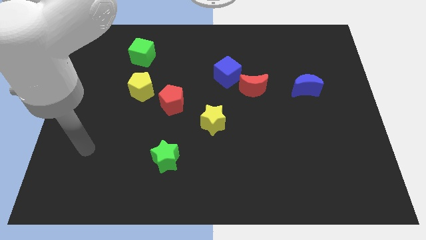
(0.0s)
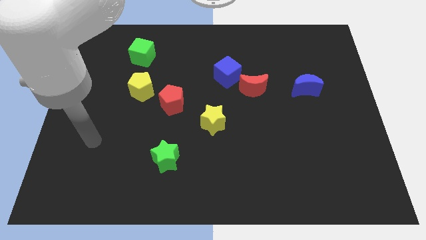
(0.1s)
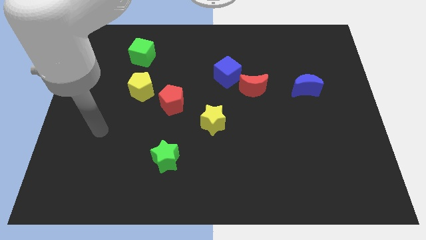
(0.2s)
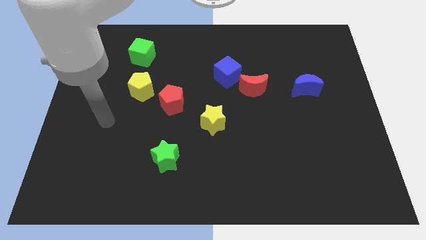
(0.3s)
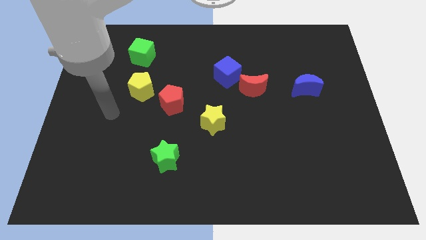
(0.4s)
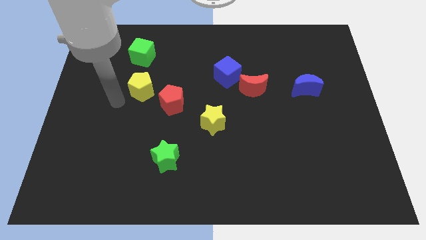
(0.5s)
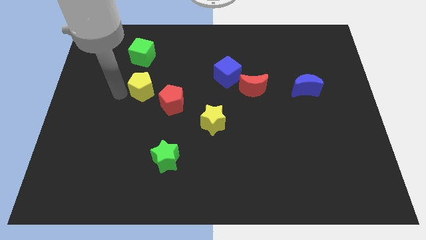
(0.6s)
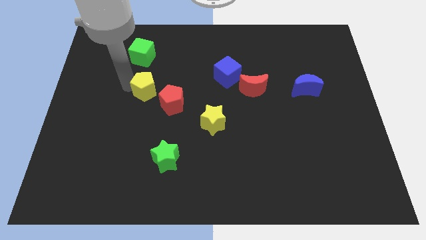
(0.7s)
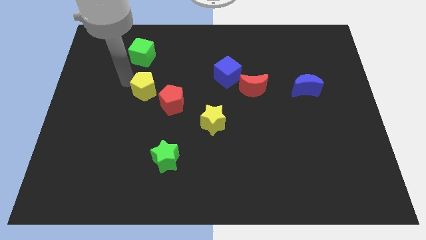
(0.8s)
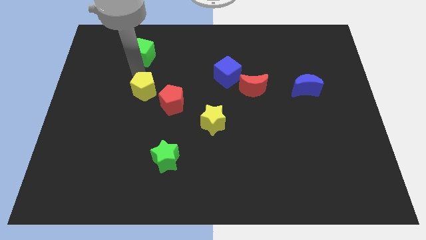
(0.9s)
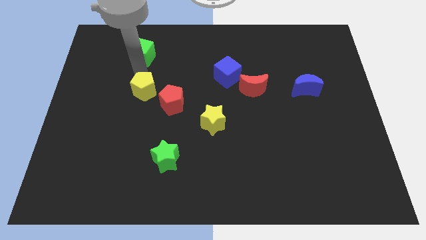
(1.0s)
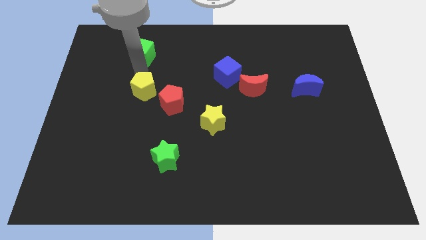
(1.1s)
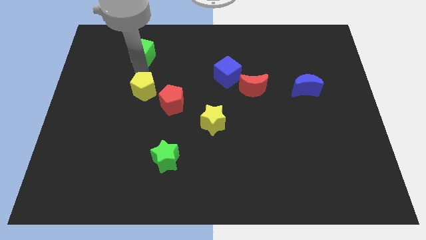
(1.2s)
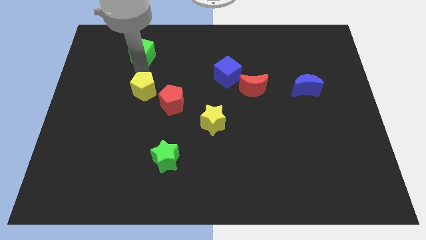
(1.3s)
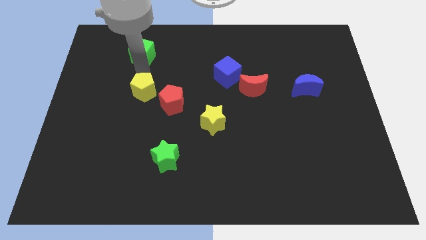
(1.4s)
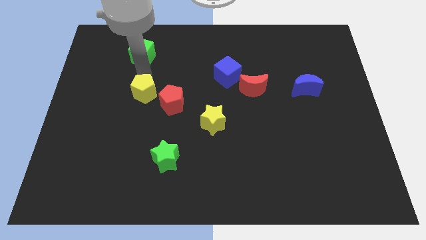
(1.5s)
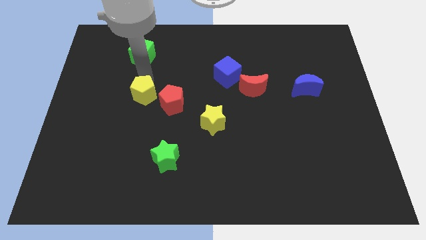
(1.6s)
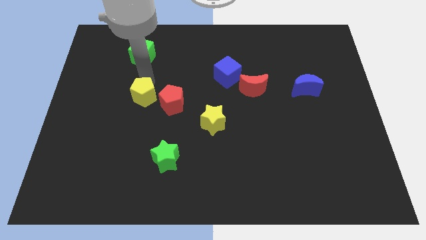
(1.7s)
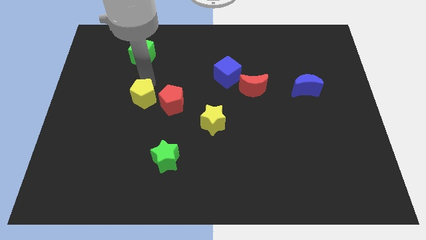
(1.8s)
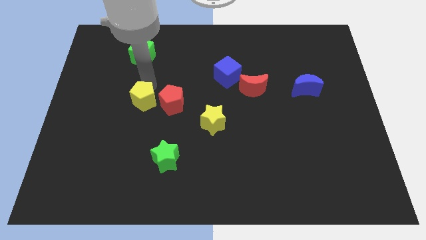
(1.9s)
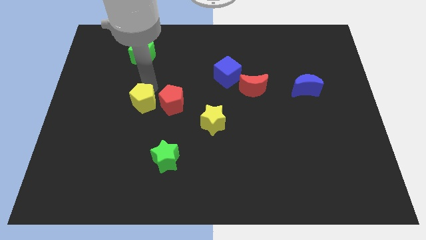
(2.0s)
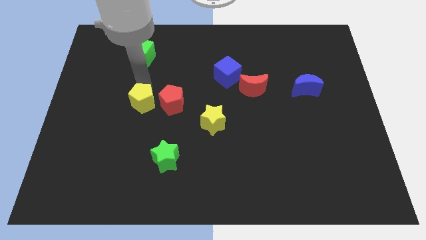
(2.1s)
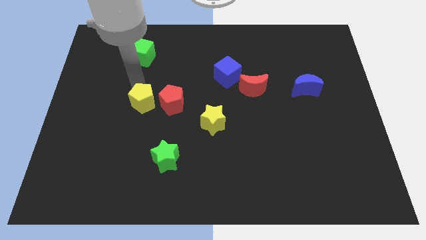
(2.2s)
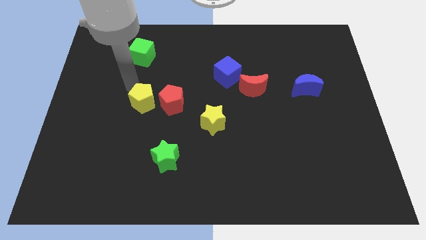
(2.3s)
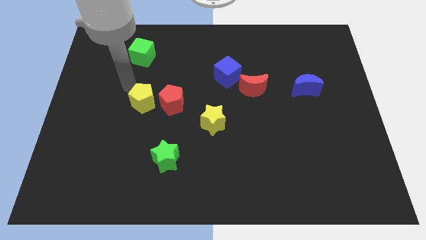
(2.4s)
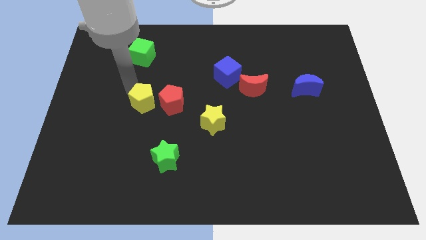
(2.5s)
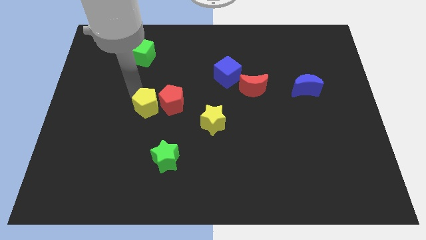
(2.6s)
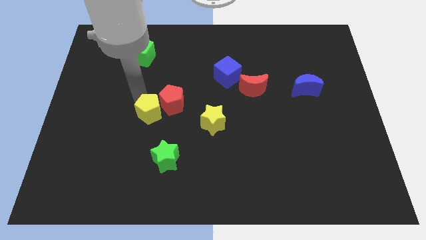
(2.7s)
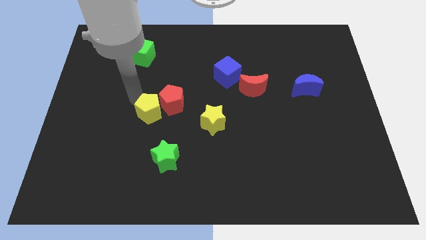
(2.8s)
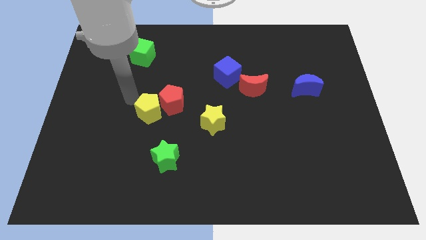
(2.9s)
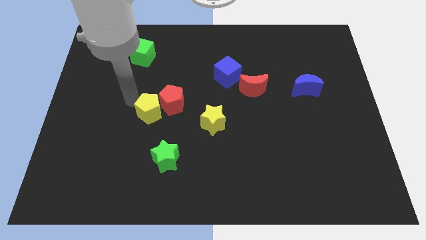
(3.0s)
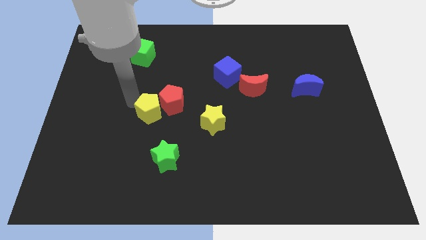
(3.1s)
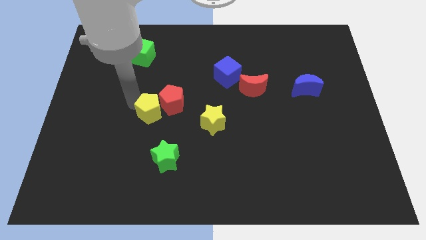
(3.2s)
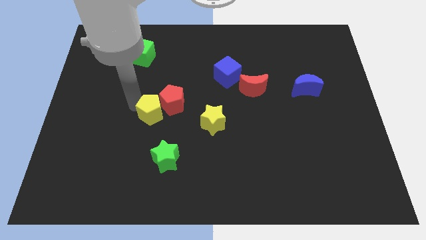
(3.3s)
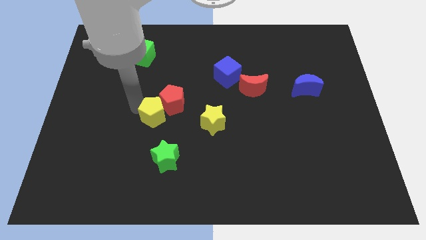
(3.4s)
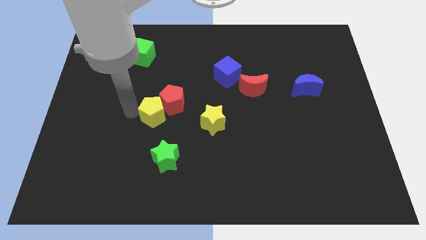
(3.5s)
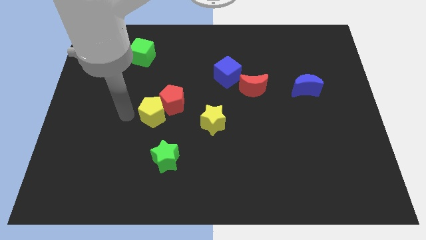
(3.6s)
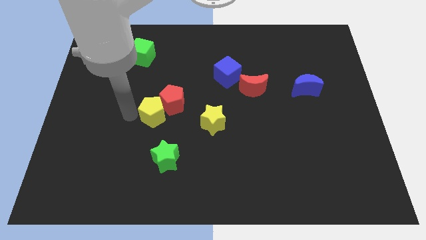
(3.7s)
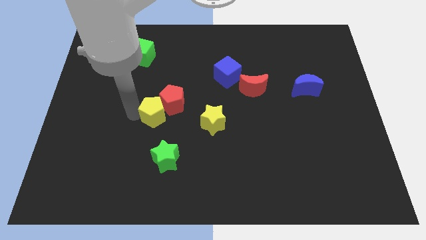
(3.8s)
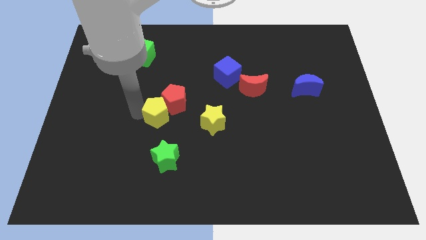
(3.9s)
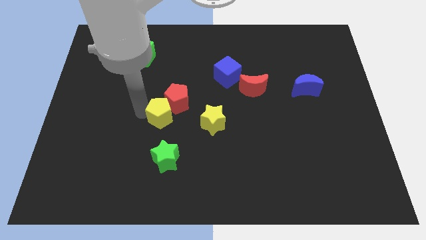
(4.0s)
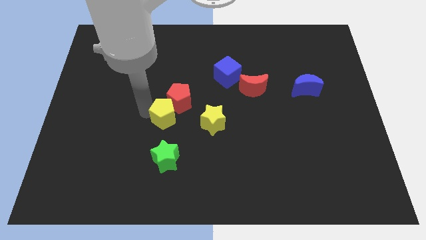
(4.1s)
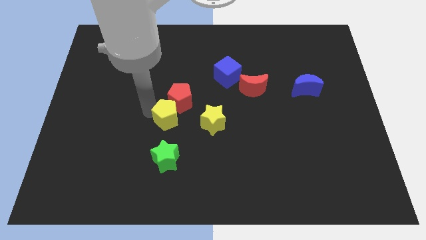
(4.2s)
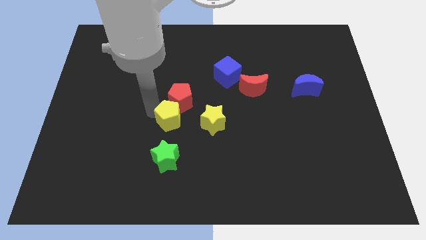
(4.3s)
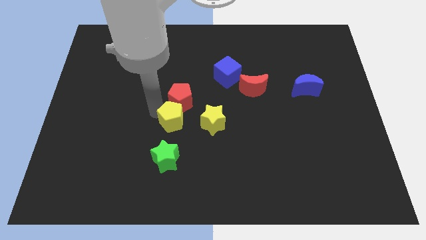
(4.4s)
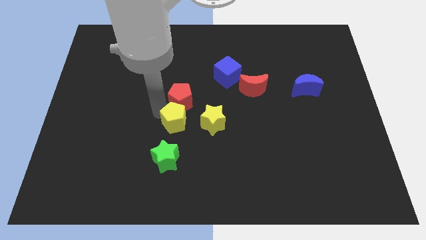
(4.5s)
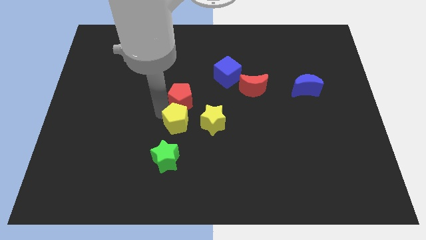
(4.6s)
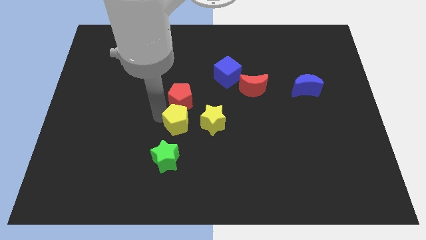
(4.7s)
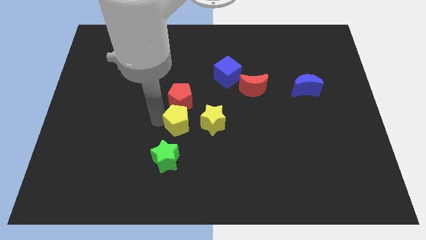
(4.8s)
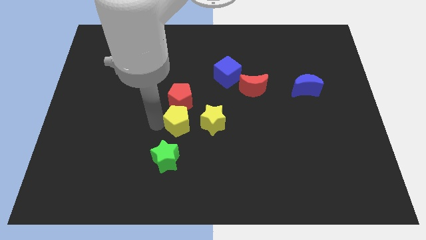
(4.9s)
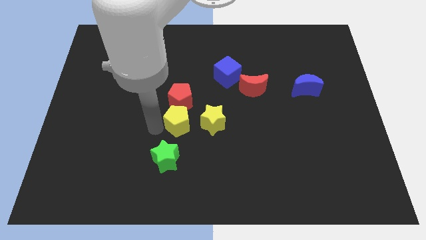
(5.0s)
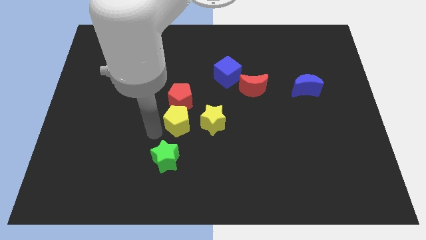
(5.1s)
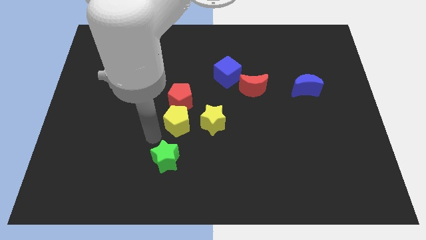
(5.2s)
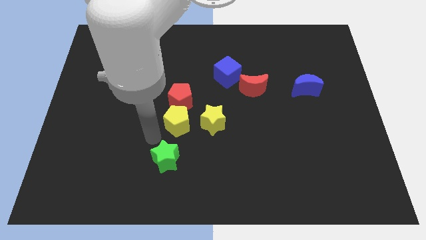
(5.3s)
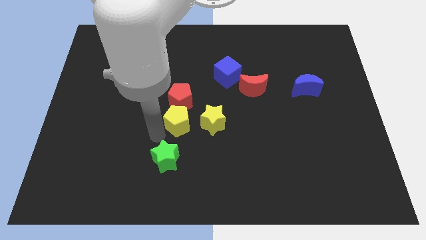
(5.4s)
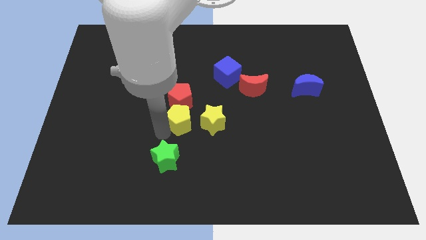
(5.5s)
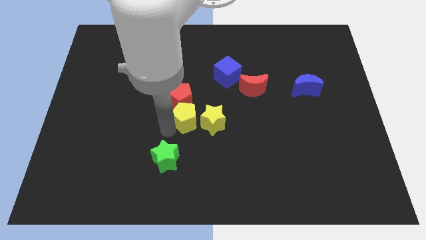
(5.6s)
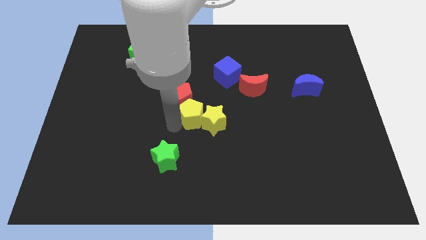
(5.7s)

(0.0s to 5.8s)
push the yellow pentagon close to the yellow star

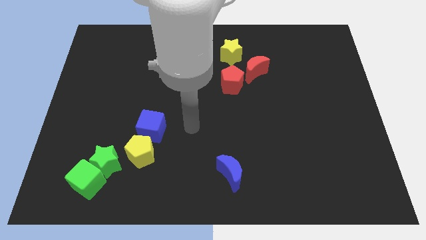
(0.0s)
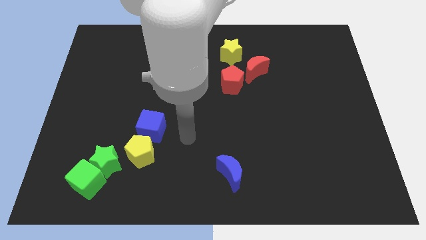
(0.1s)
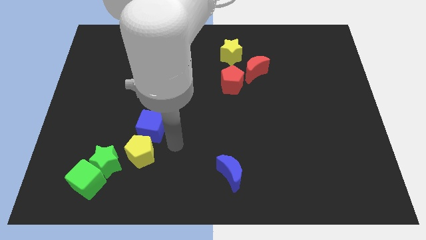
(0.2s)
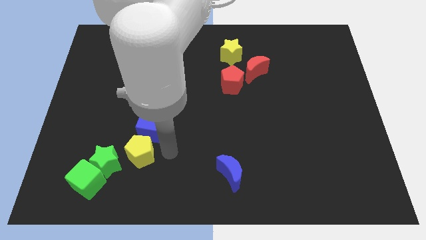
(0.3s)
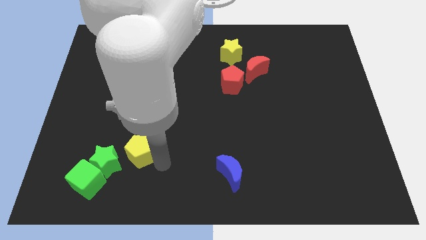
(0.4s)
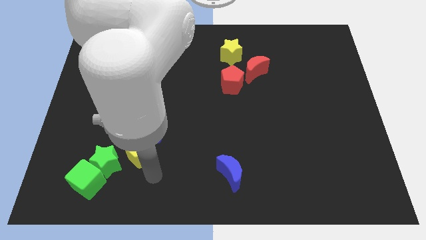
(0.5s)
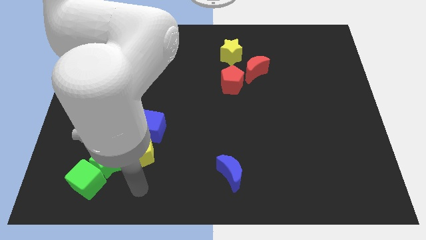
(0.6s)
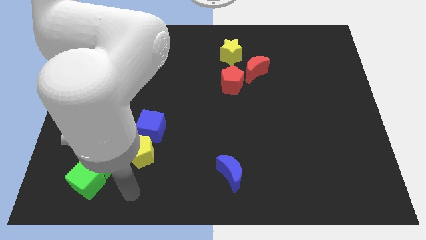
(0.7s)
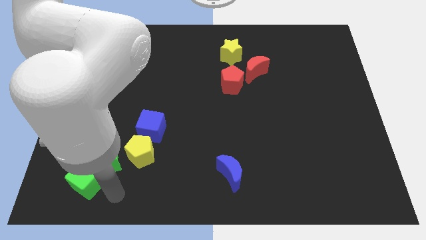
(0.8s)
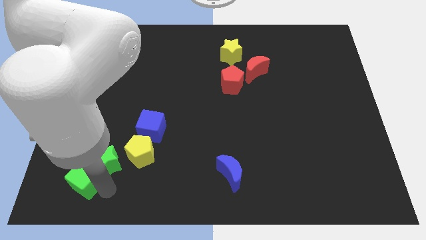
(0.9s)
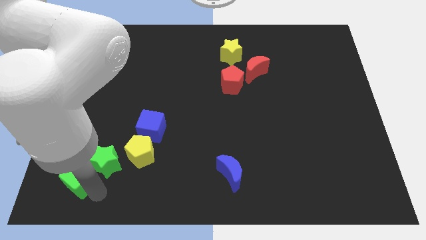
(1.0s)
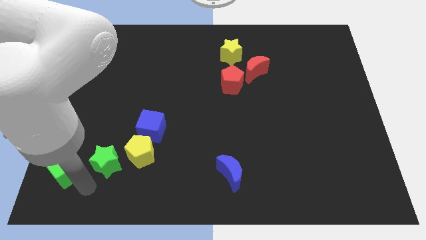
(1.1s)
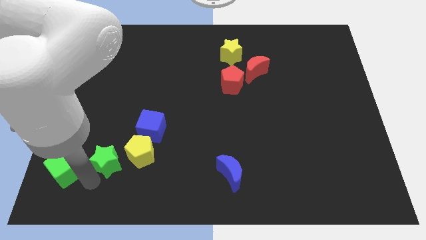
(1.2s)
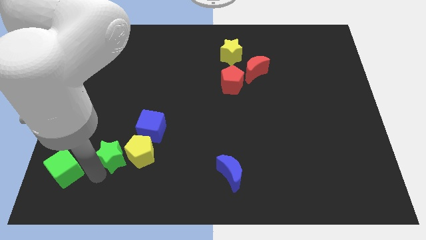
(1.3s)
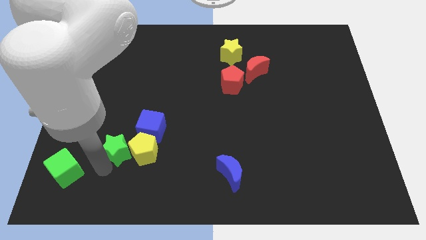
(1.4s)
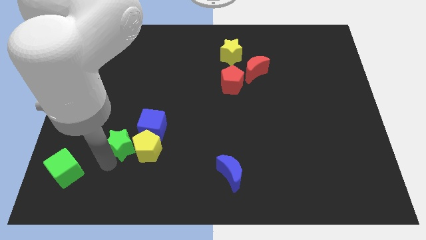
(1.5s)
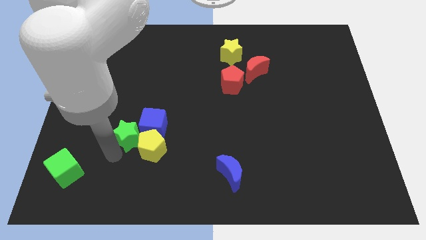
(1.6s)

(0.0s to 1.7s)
put the green star next to the blue cube

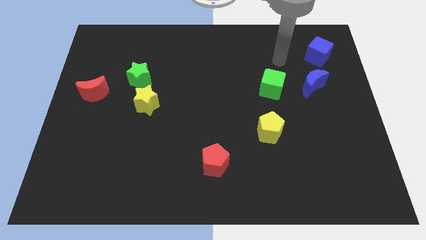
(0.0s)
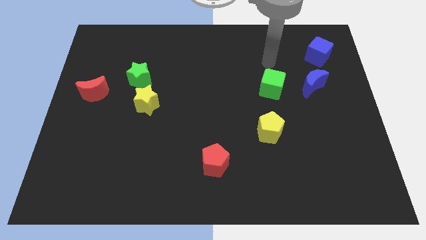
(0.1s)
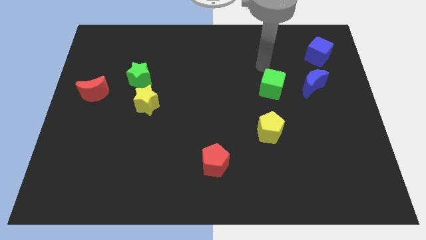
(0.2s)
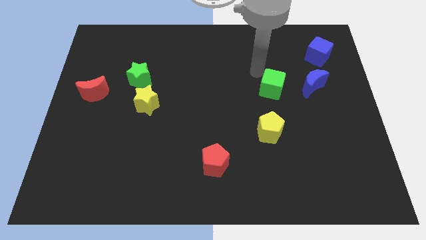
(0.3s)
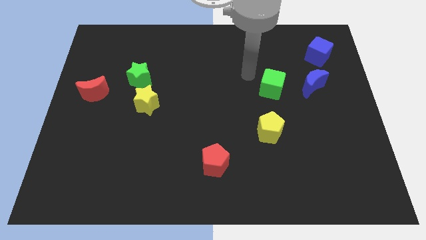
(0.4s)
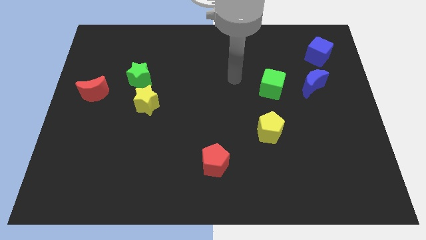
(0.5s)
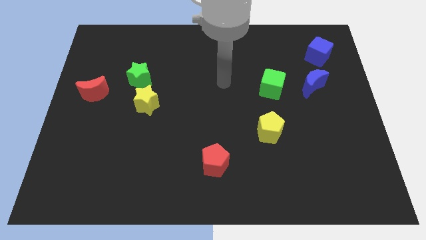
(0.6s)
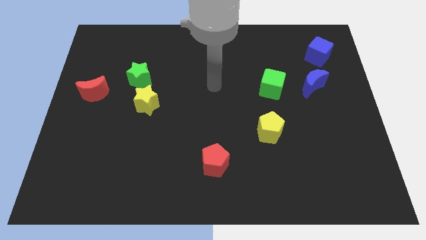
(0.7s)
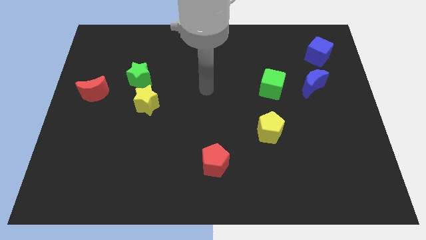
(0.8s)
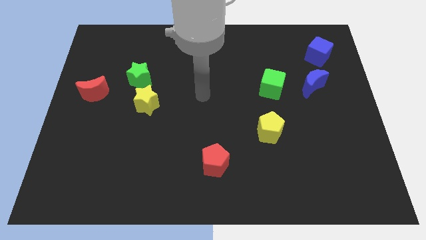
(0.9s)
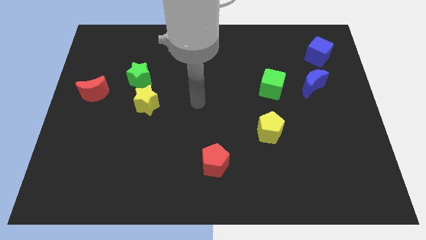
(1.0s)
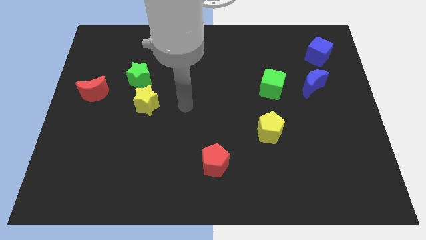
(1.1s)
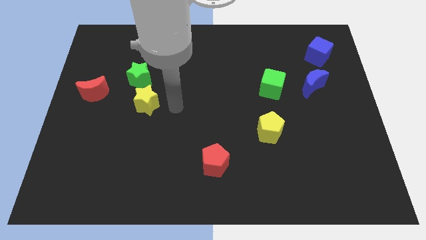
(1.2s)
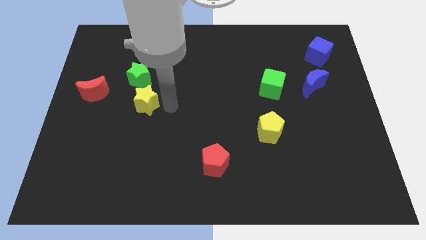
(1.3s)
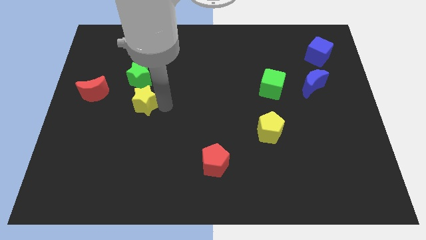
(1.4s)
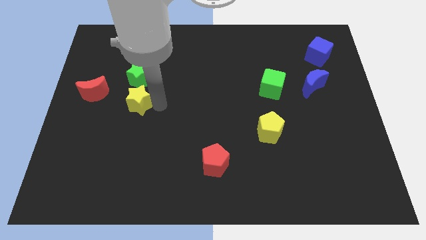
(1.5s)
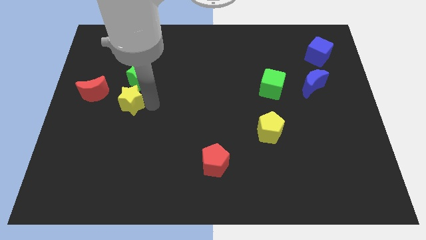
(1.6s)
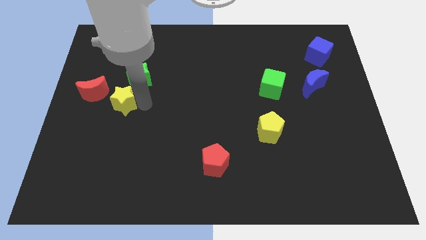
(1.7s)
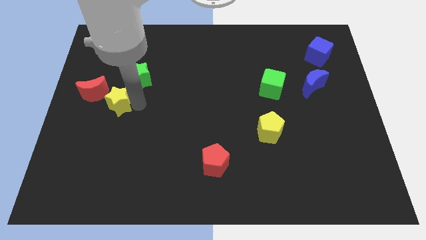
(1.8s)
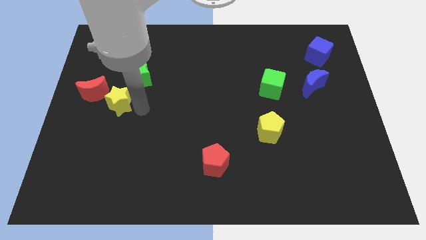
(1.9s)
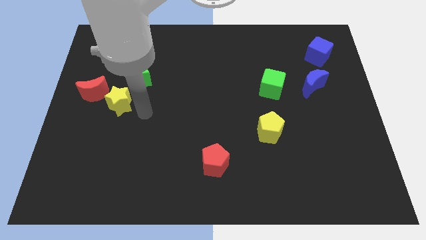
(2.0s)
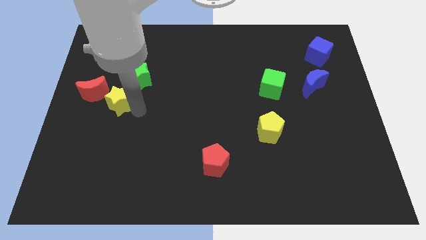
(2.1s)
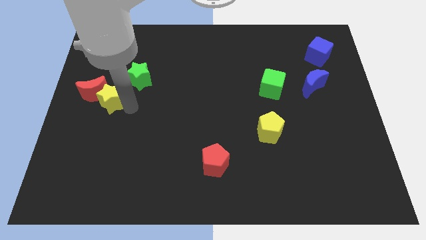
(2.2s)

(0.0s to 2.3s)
slide the yellow star close to the red moon
